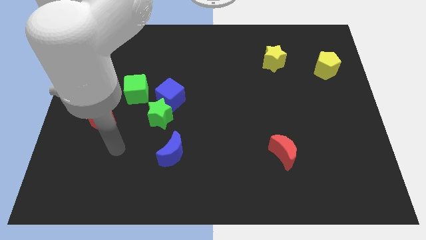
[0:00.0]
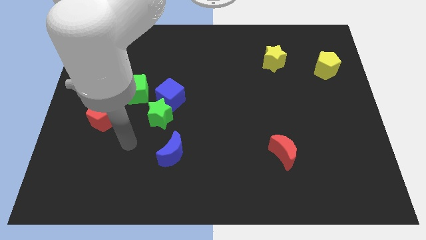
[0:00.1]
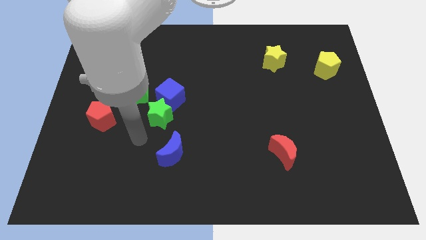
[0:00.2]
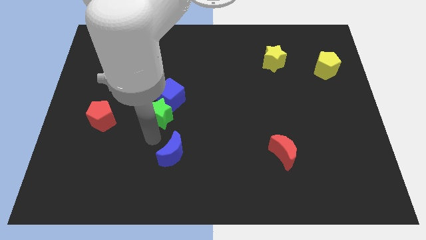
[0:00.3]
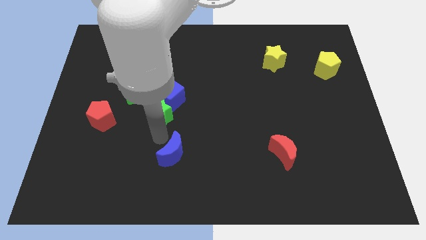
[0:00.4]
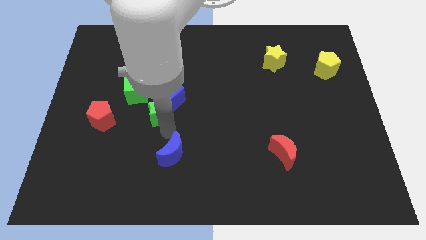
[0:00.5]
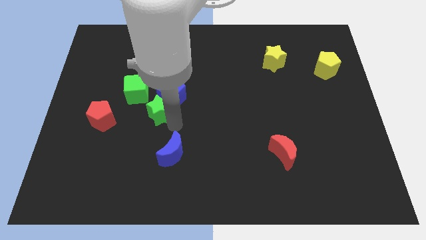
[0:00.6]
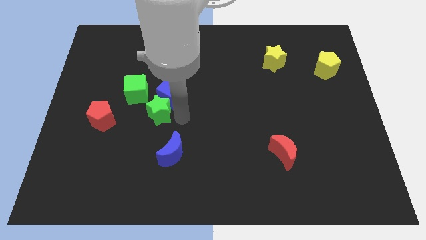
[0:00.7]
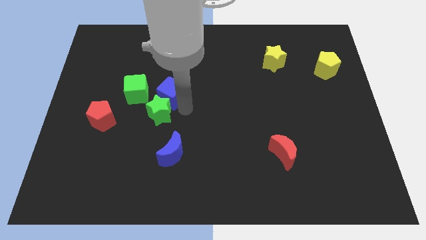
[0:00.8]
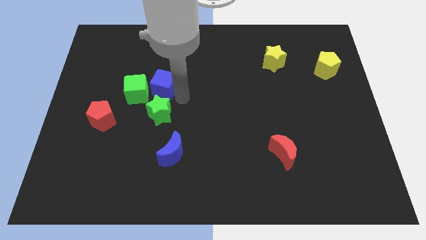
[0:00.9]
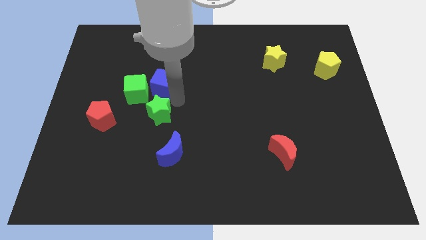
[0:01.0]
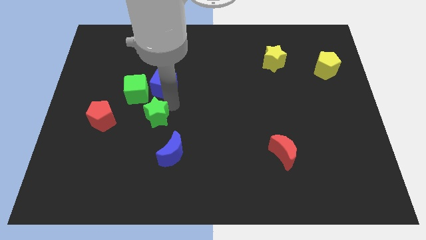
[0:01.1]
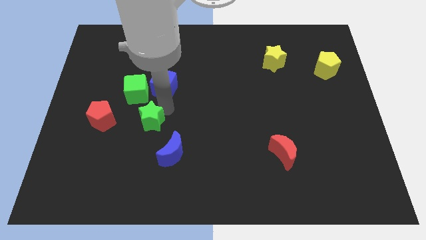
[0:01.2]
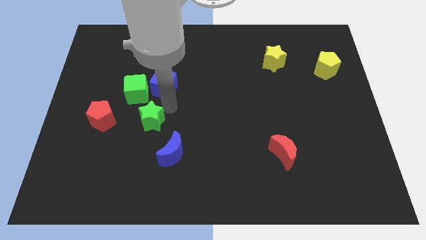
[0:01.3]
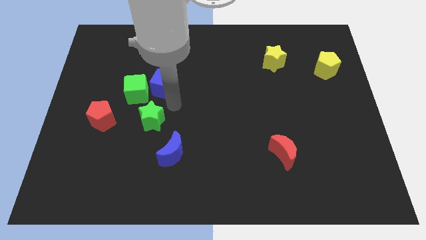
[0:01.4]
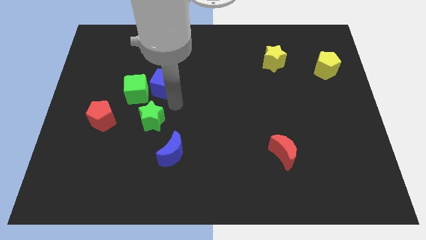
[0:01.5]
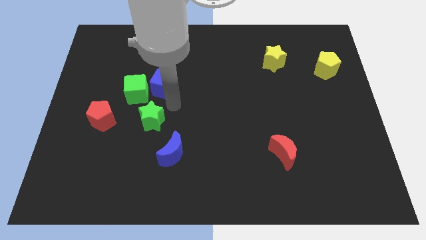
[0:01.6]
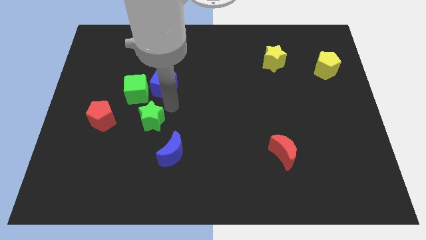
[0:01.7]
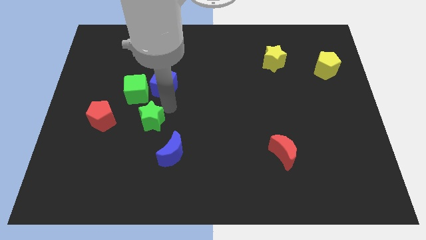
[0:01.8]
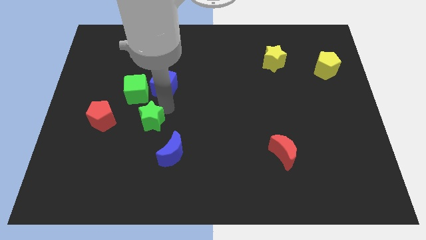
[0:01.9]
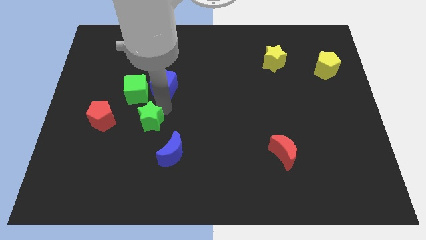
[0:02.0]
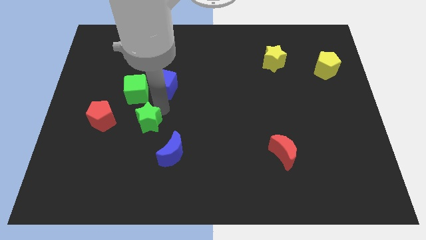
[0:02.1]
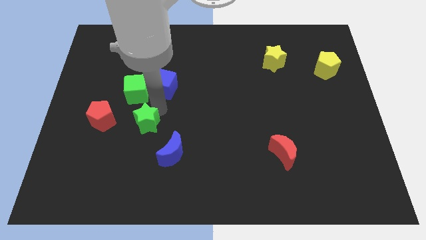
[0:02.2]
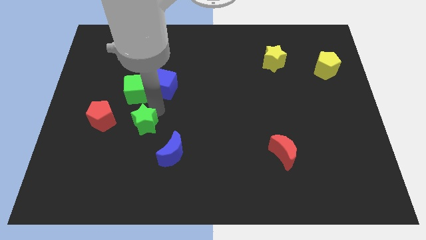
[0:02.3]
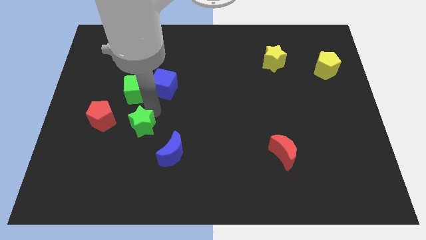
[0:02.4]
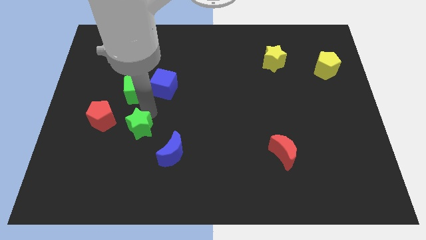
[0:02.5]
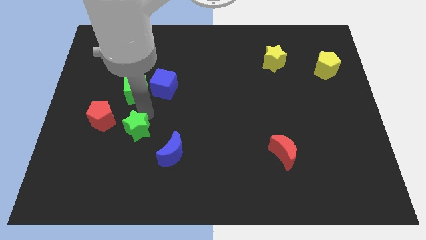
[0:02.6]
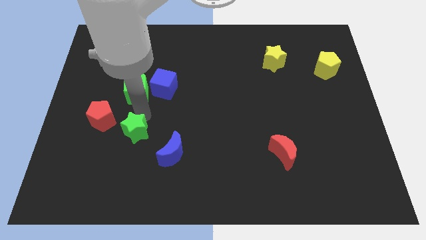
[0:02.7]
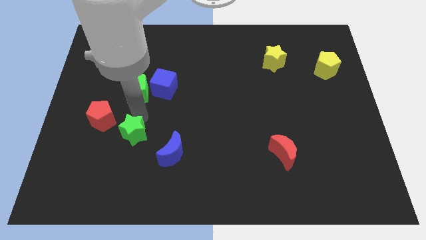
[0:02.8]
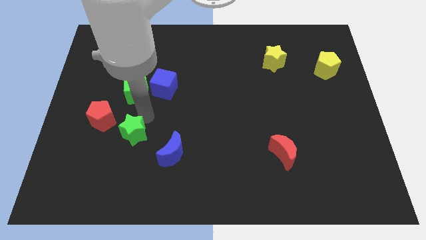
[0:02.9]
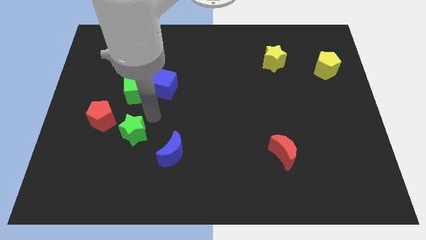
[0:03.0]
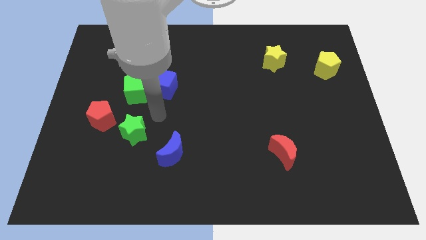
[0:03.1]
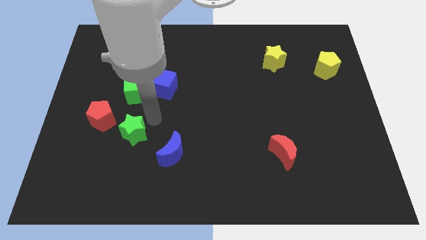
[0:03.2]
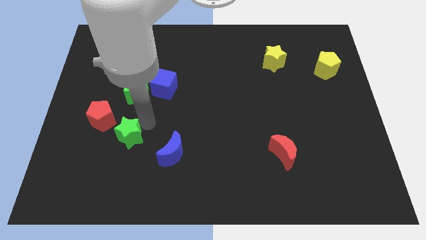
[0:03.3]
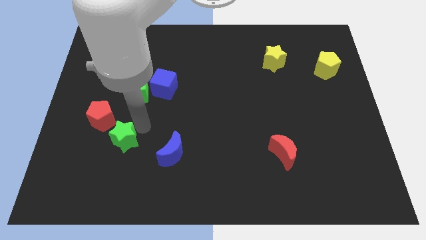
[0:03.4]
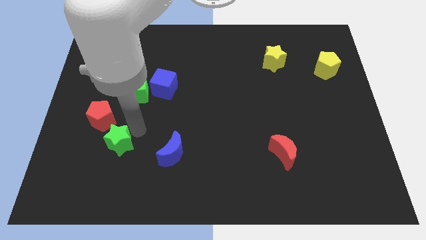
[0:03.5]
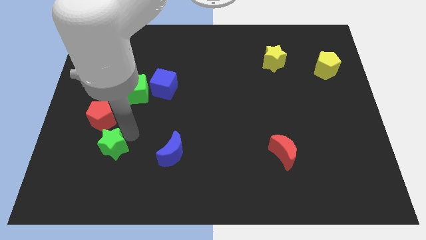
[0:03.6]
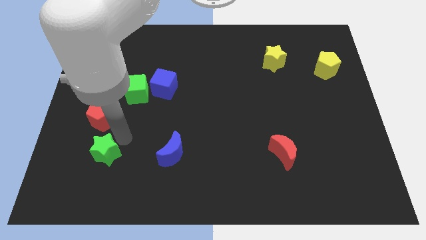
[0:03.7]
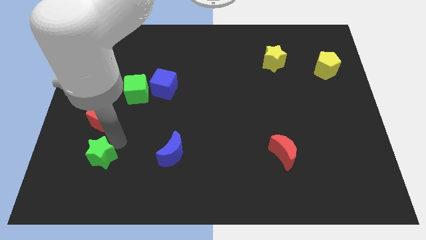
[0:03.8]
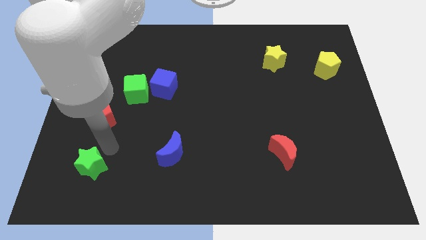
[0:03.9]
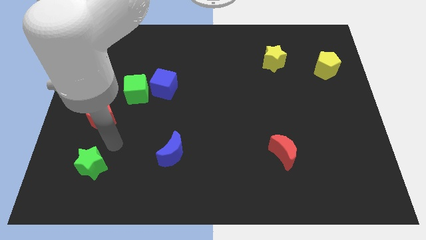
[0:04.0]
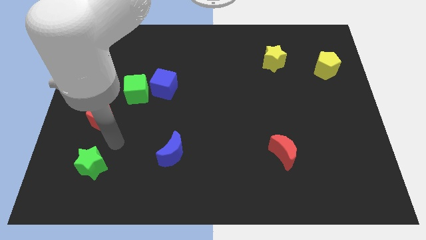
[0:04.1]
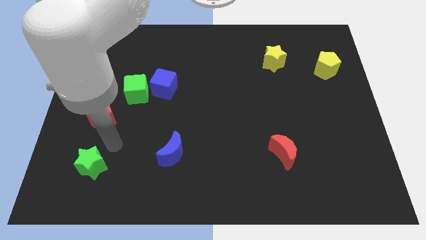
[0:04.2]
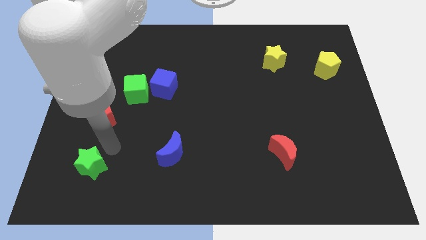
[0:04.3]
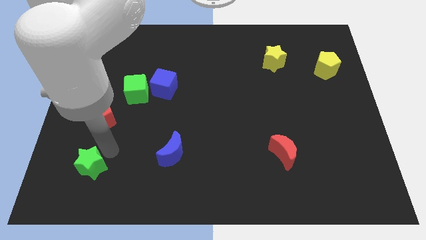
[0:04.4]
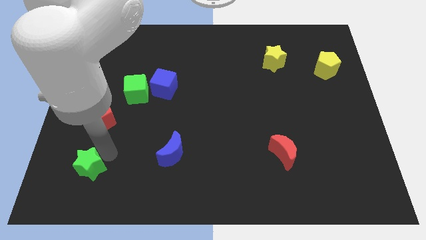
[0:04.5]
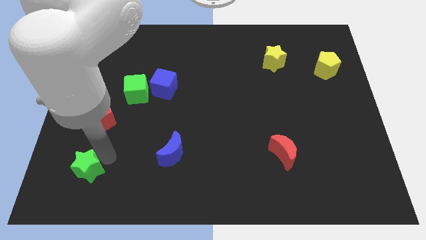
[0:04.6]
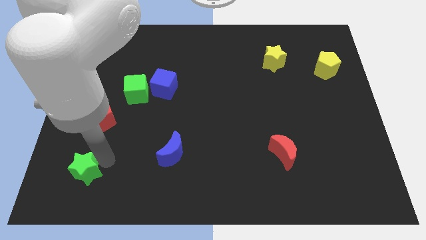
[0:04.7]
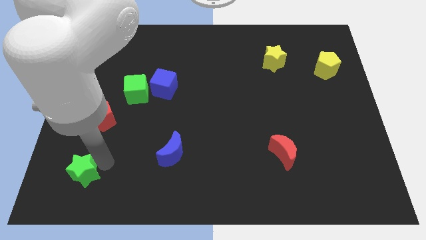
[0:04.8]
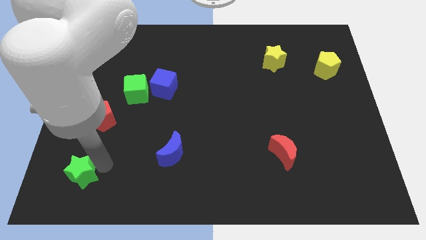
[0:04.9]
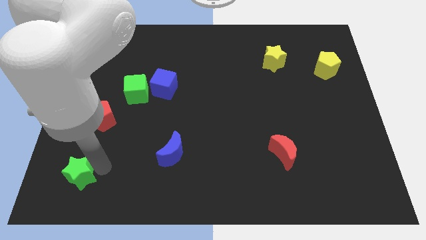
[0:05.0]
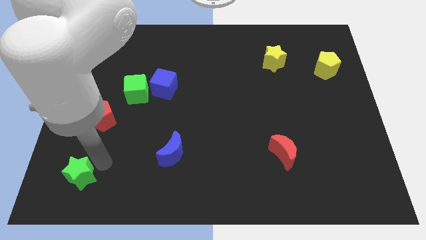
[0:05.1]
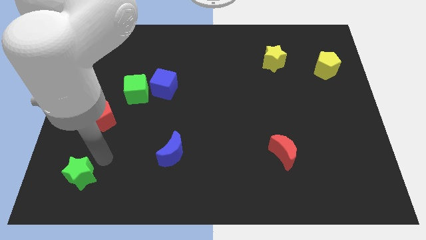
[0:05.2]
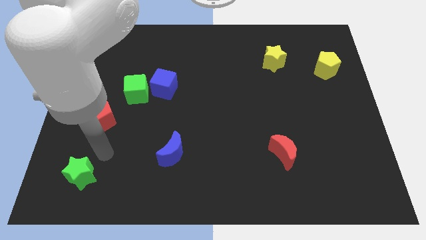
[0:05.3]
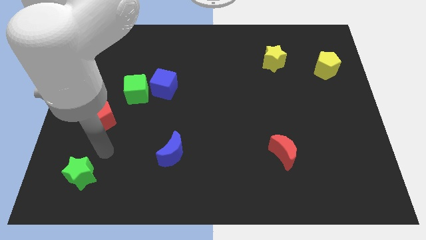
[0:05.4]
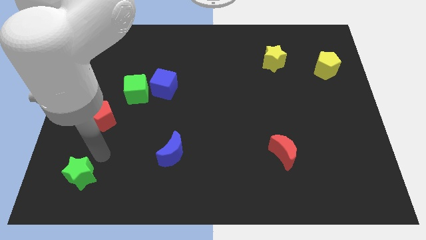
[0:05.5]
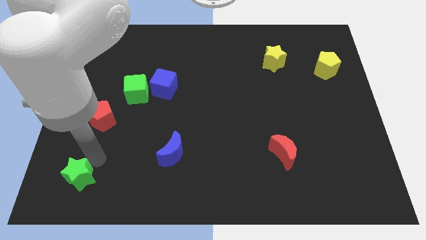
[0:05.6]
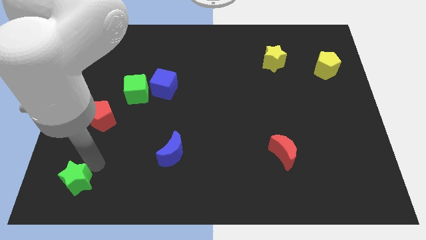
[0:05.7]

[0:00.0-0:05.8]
put the green star to the bottom left of the board

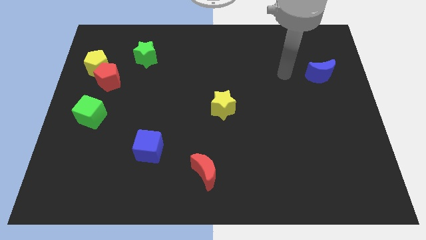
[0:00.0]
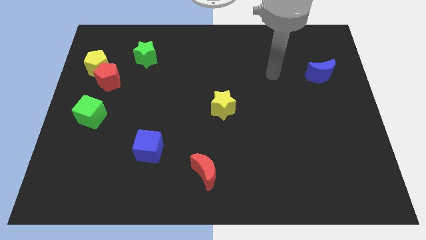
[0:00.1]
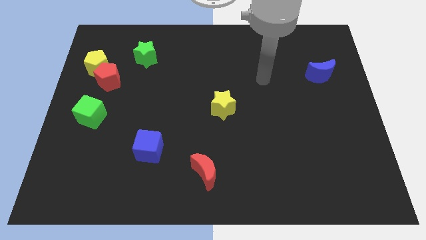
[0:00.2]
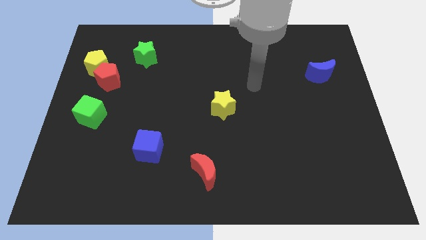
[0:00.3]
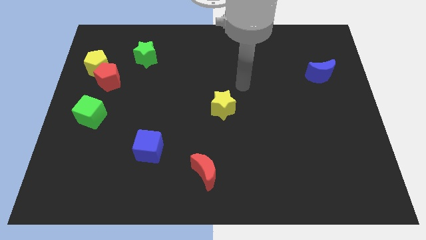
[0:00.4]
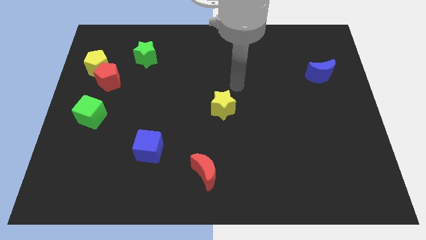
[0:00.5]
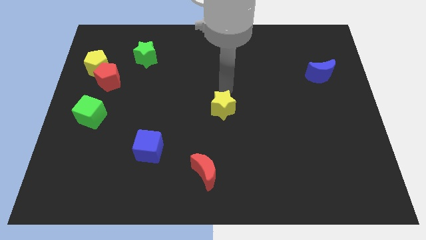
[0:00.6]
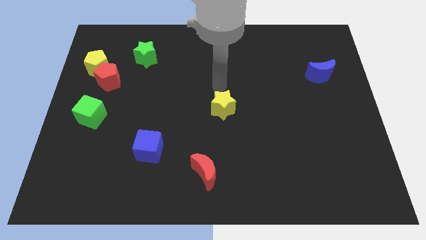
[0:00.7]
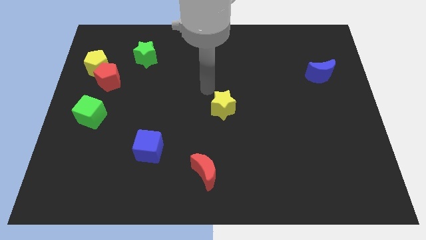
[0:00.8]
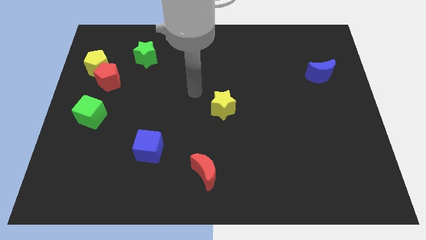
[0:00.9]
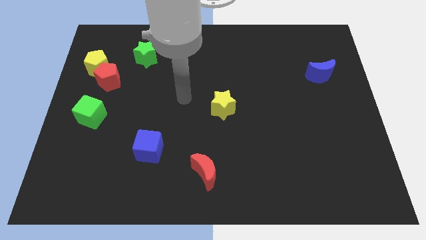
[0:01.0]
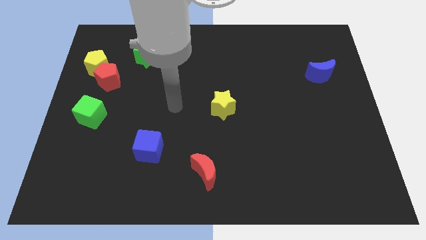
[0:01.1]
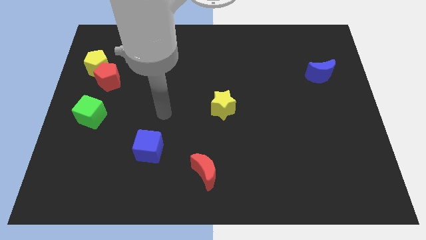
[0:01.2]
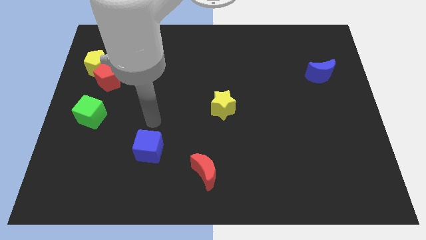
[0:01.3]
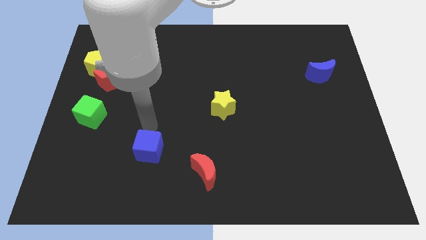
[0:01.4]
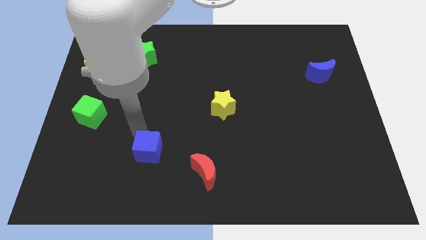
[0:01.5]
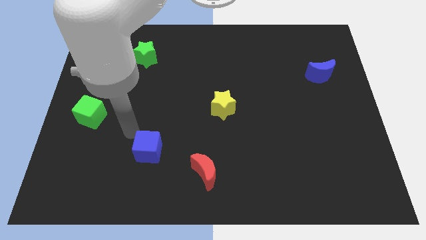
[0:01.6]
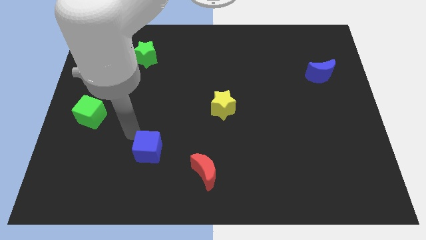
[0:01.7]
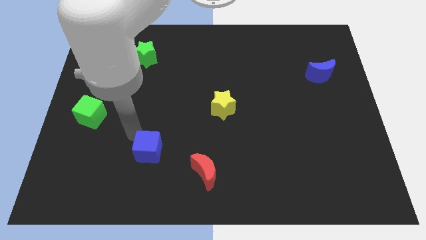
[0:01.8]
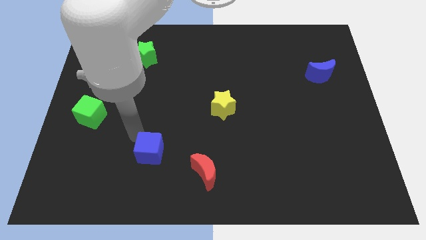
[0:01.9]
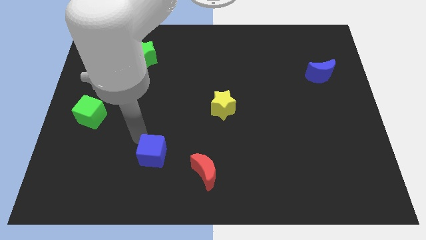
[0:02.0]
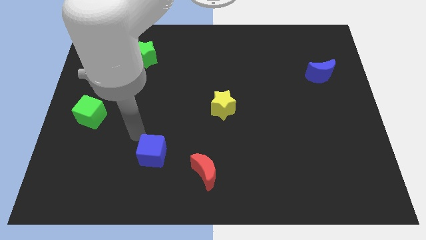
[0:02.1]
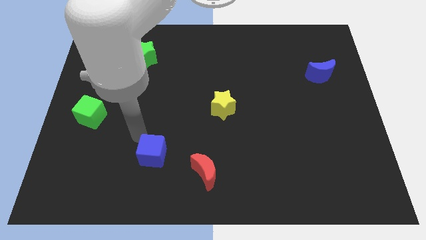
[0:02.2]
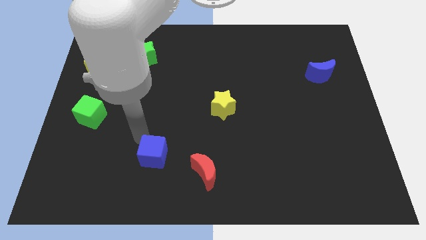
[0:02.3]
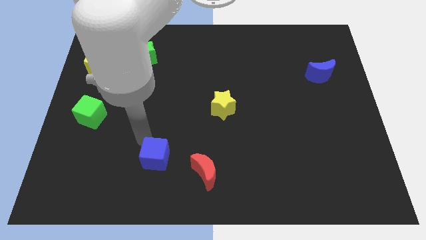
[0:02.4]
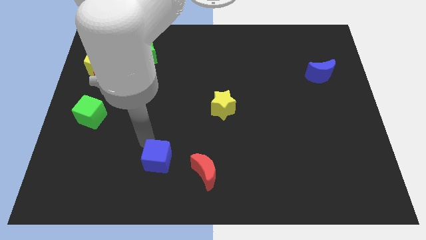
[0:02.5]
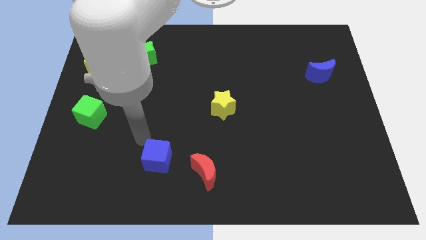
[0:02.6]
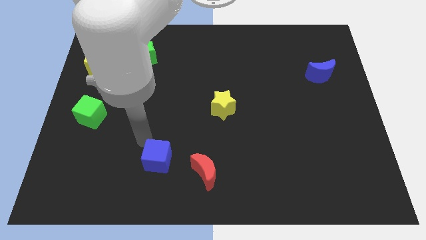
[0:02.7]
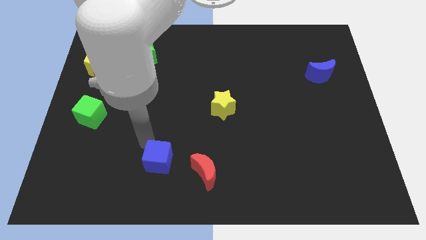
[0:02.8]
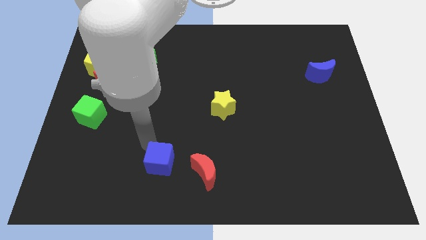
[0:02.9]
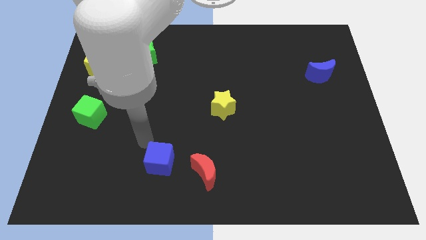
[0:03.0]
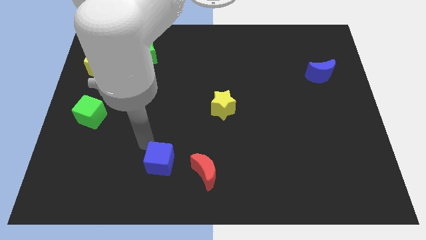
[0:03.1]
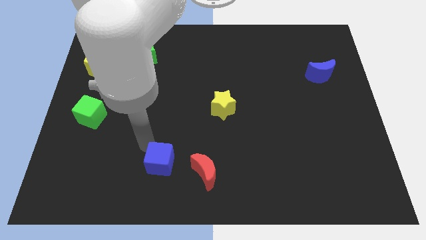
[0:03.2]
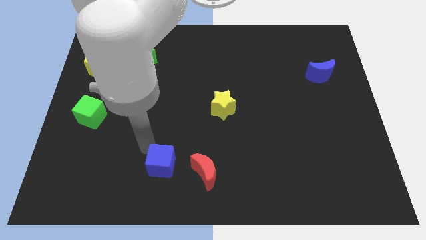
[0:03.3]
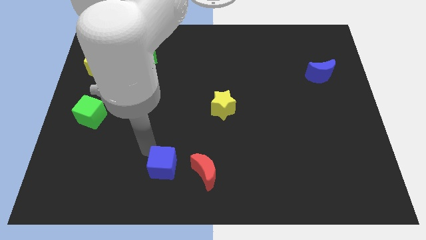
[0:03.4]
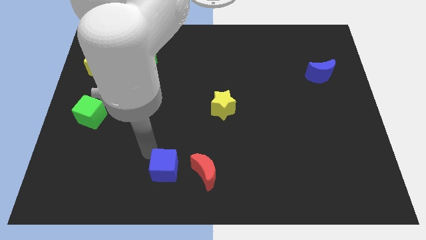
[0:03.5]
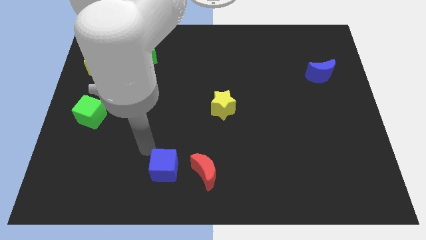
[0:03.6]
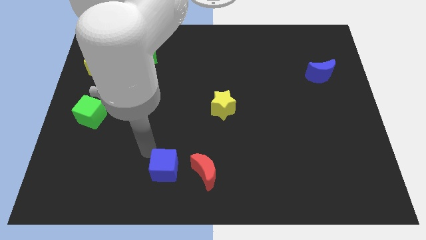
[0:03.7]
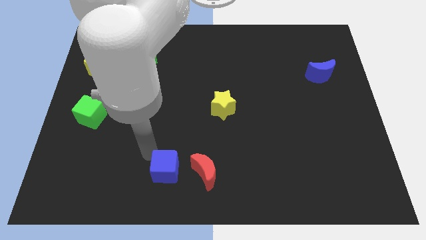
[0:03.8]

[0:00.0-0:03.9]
push the blue cube to the bottom
